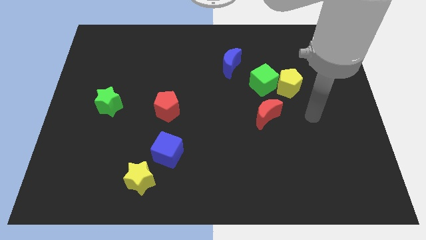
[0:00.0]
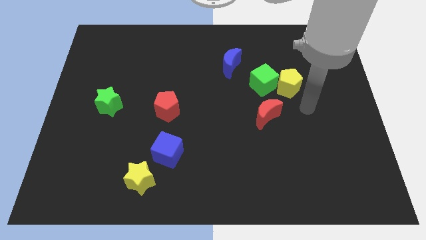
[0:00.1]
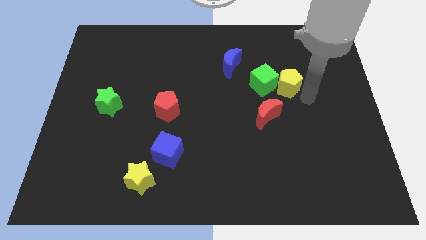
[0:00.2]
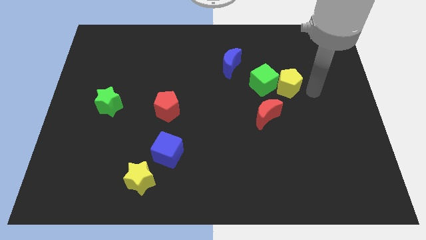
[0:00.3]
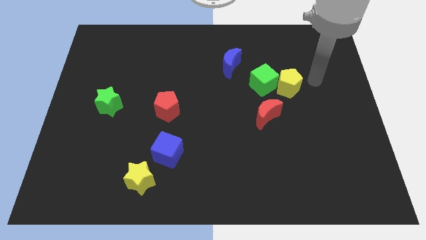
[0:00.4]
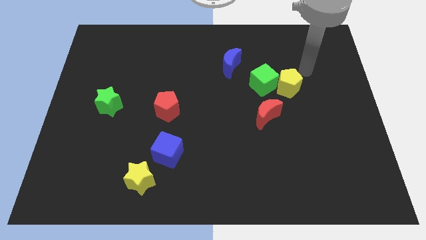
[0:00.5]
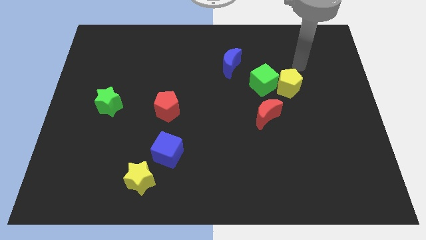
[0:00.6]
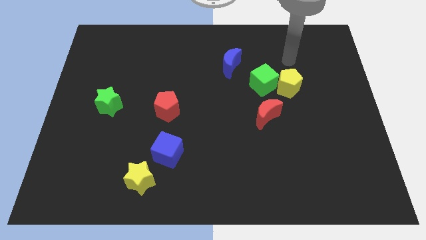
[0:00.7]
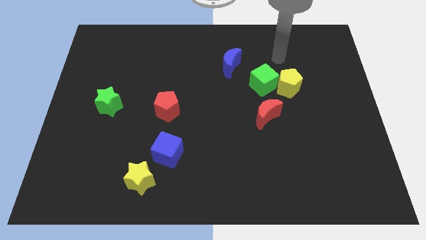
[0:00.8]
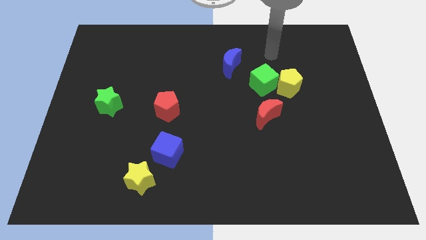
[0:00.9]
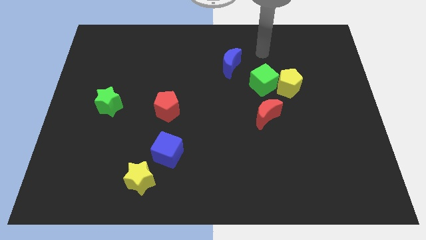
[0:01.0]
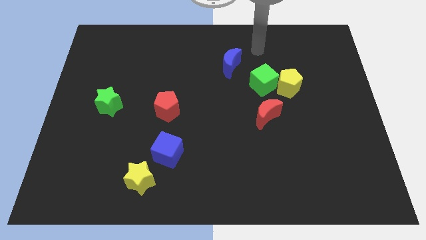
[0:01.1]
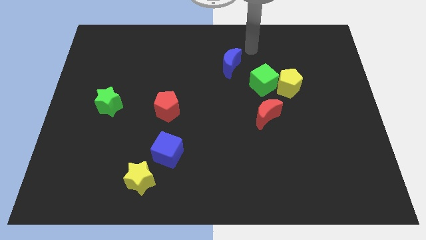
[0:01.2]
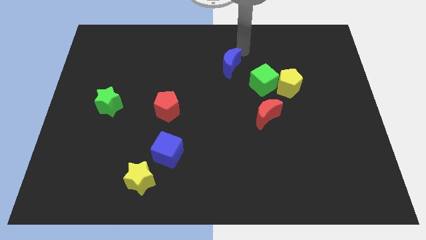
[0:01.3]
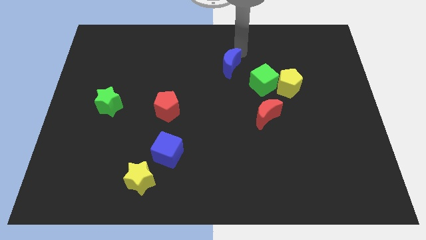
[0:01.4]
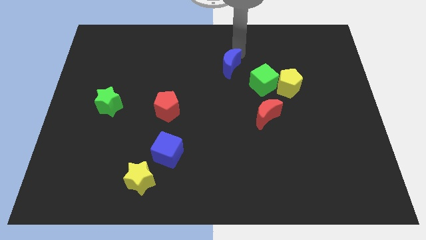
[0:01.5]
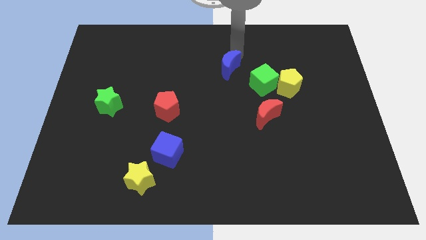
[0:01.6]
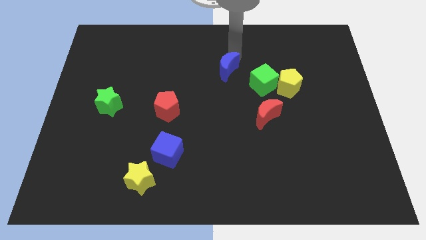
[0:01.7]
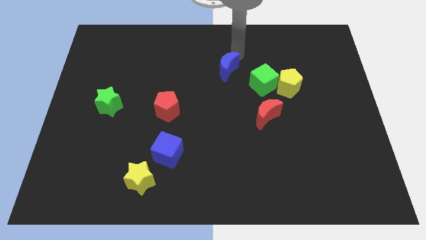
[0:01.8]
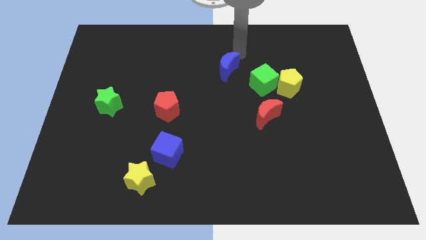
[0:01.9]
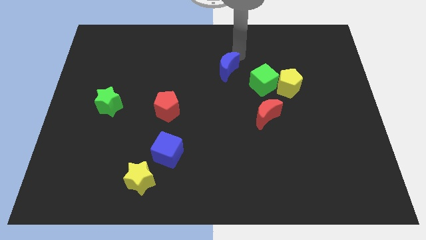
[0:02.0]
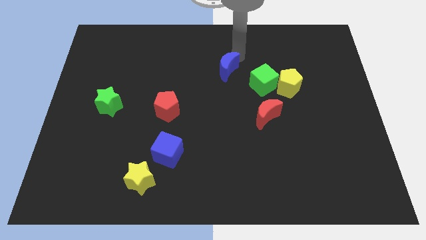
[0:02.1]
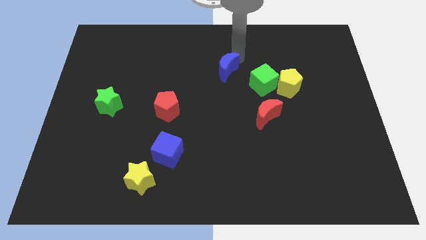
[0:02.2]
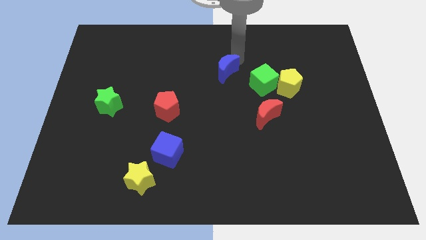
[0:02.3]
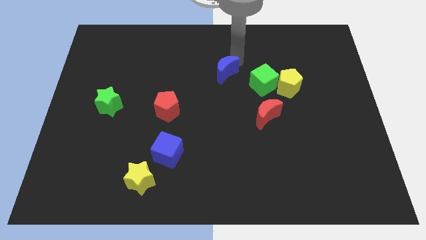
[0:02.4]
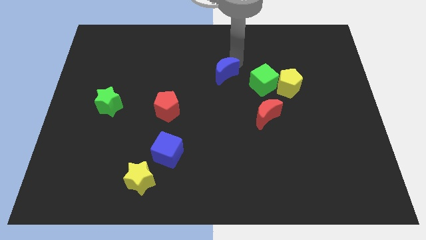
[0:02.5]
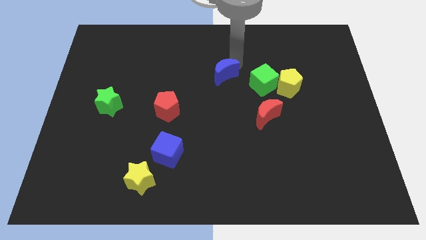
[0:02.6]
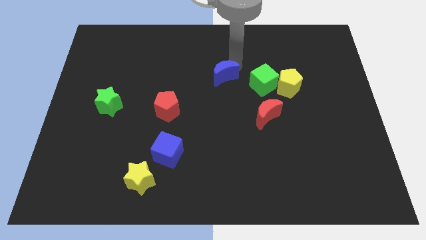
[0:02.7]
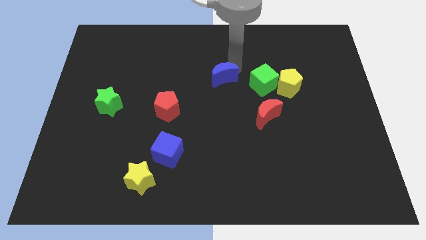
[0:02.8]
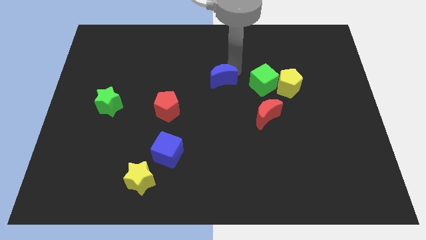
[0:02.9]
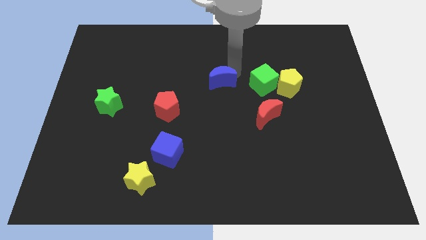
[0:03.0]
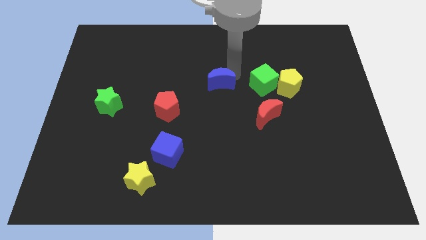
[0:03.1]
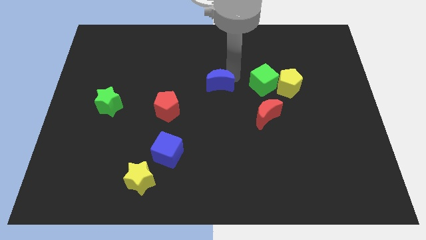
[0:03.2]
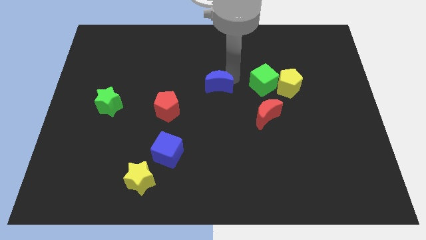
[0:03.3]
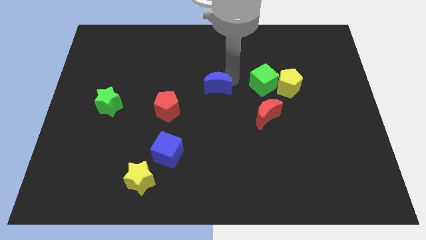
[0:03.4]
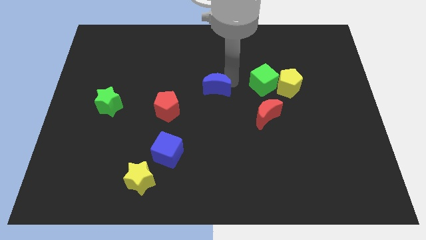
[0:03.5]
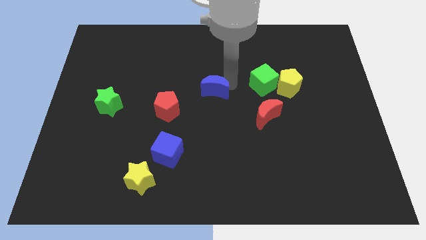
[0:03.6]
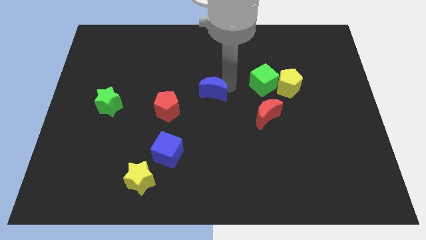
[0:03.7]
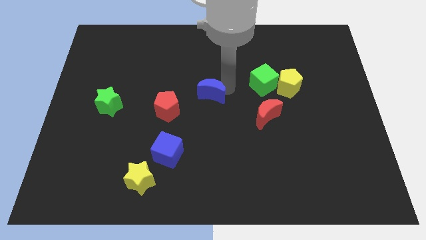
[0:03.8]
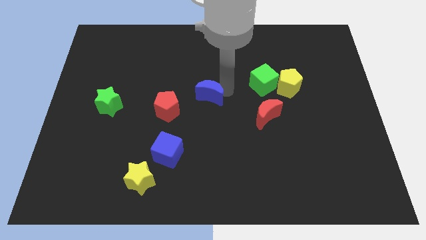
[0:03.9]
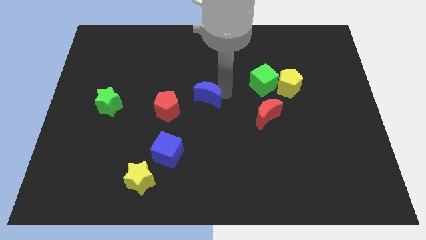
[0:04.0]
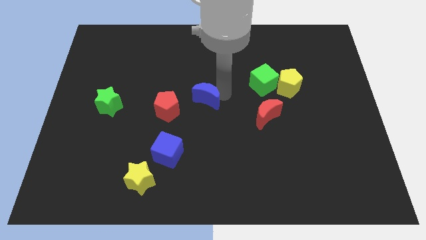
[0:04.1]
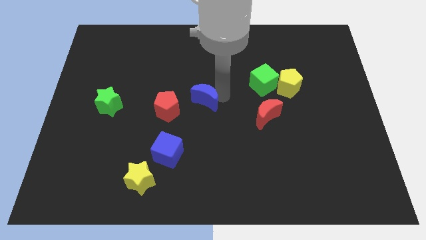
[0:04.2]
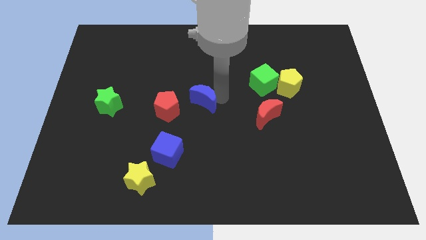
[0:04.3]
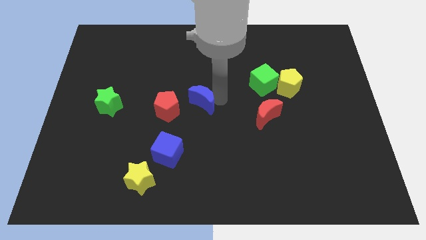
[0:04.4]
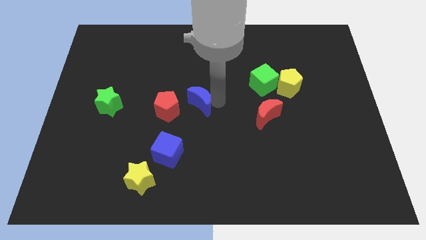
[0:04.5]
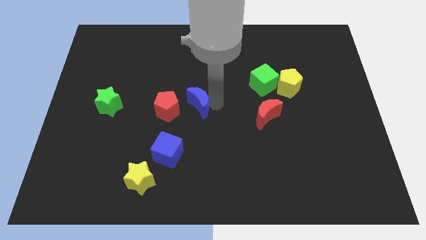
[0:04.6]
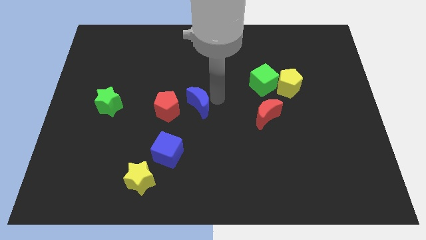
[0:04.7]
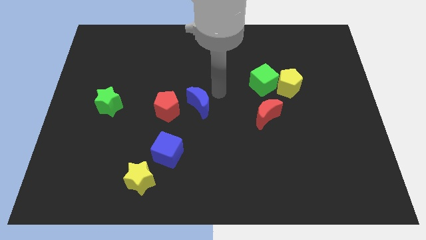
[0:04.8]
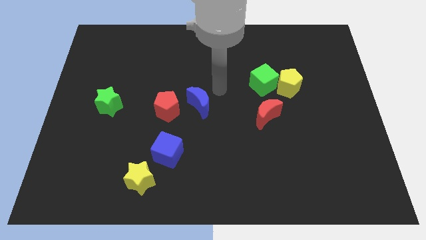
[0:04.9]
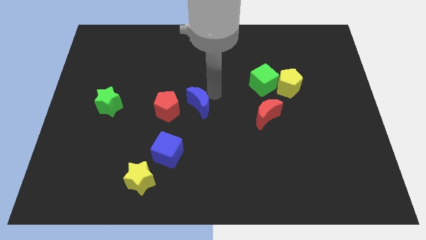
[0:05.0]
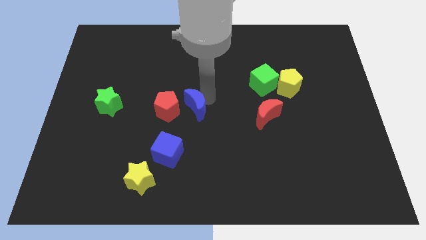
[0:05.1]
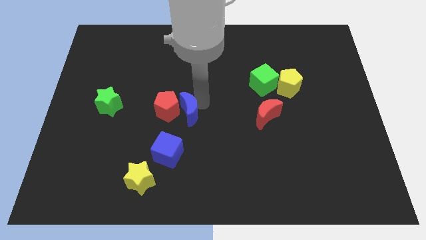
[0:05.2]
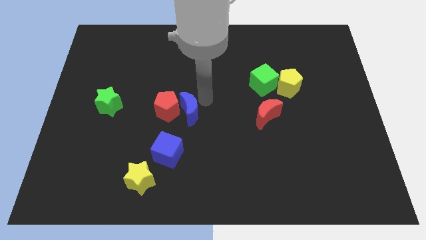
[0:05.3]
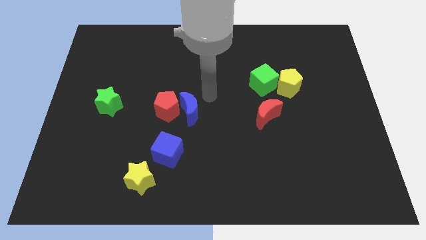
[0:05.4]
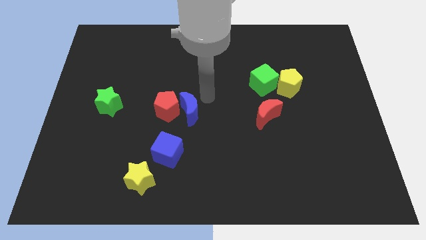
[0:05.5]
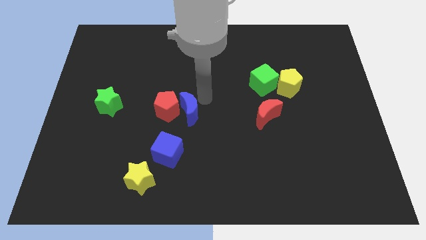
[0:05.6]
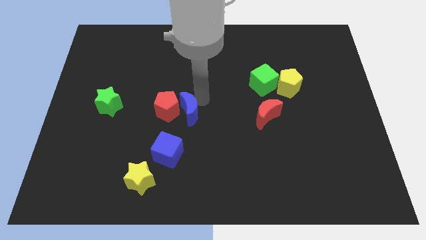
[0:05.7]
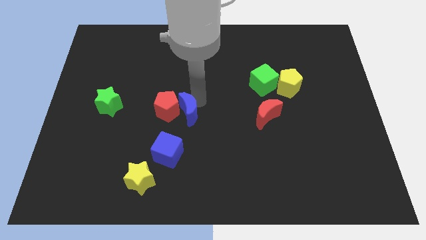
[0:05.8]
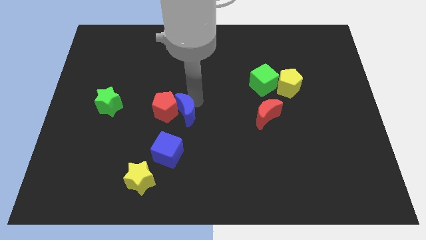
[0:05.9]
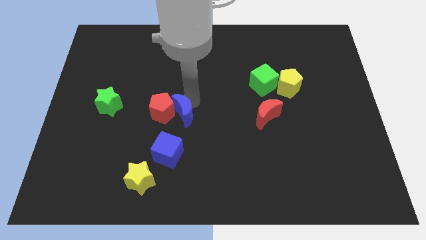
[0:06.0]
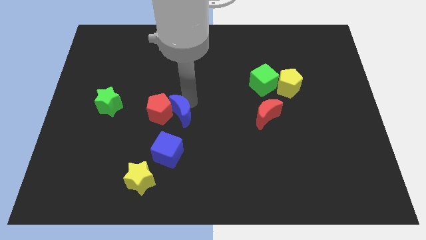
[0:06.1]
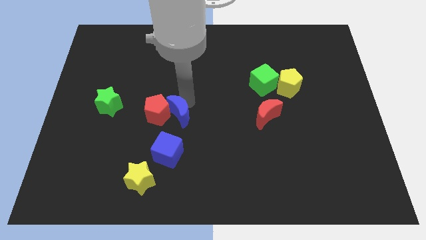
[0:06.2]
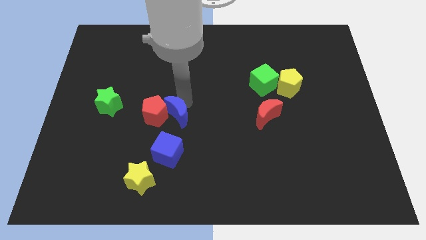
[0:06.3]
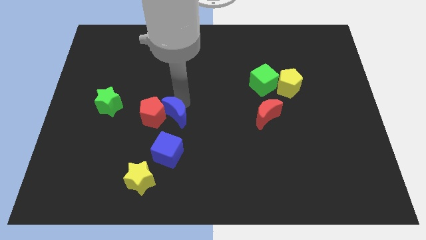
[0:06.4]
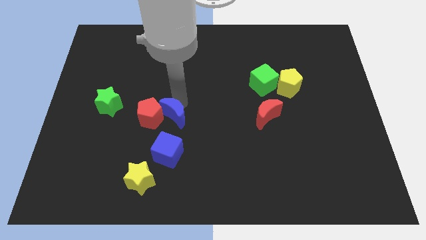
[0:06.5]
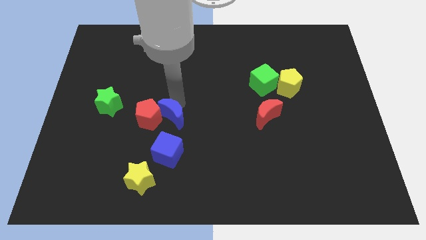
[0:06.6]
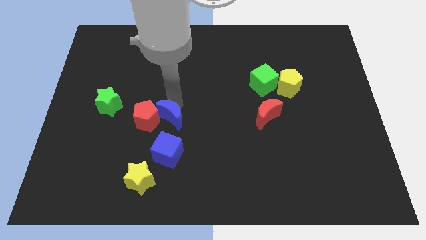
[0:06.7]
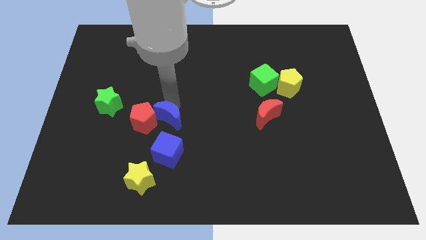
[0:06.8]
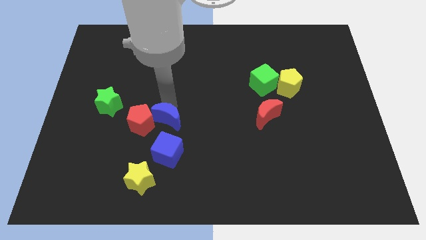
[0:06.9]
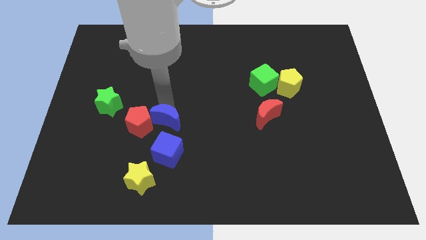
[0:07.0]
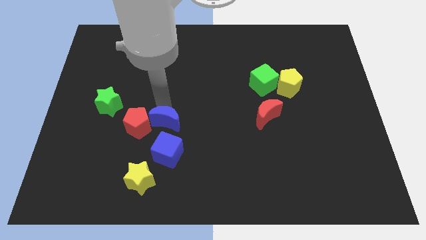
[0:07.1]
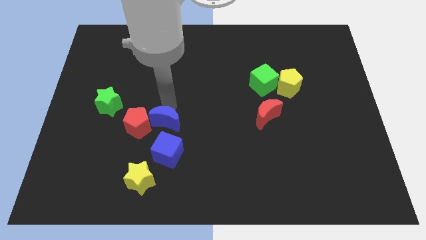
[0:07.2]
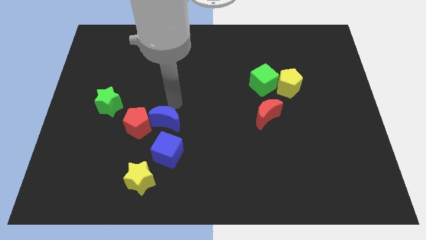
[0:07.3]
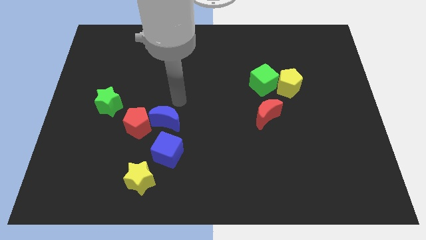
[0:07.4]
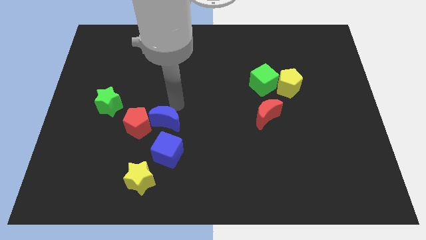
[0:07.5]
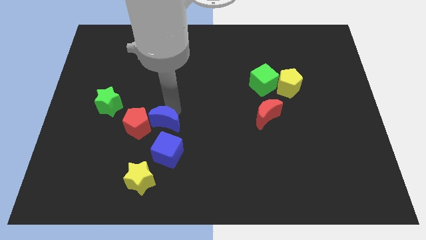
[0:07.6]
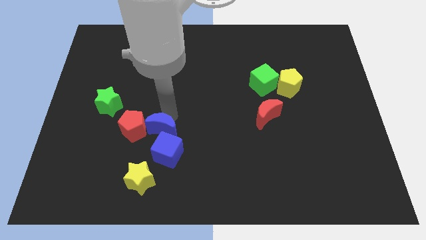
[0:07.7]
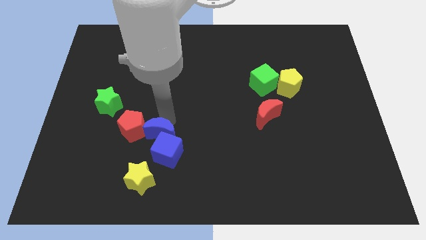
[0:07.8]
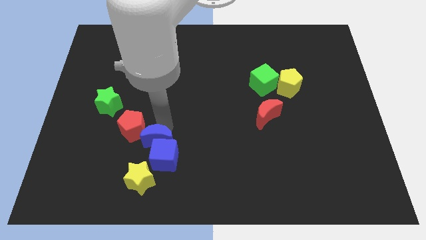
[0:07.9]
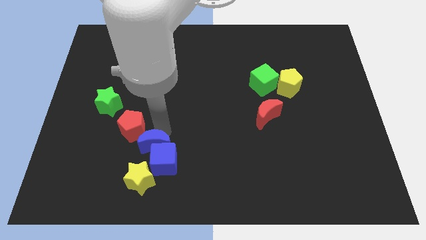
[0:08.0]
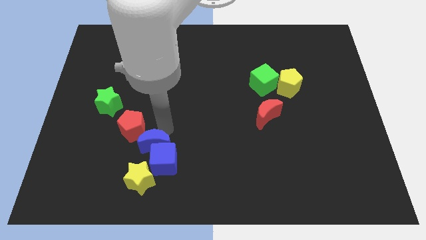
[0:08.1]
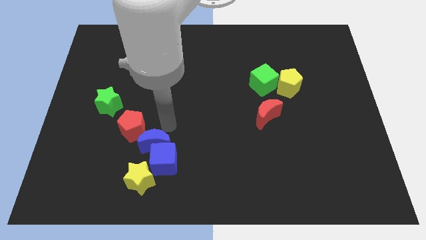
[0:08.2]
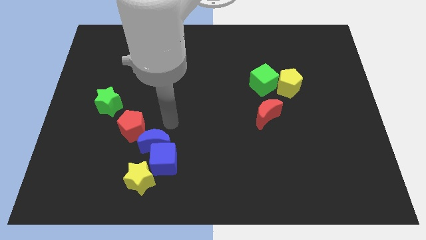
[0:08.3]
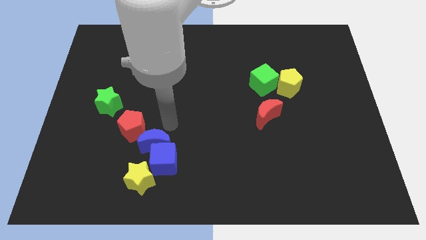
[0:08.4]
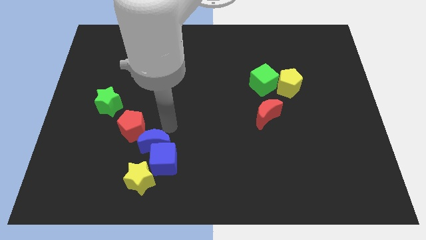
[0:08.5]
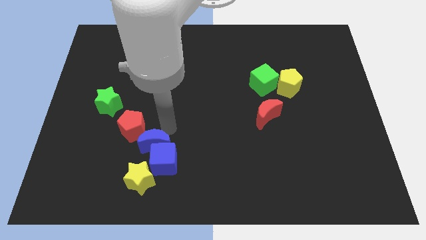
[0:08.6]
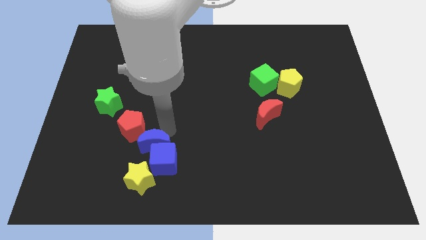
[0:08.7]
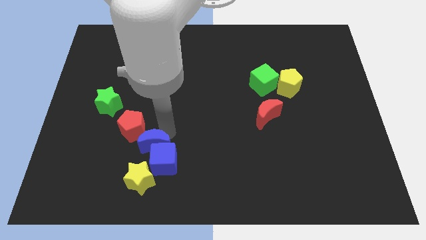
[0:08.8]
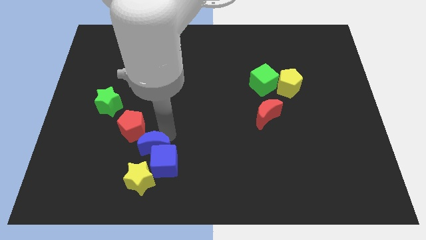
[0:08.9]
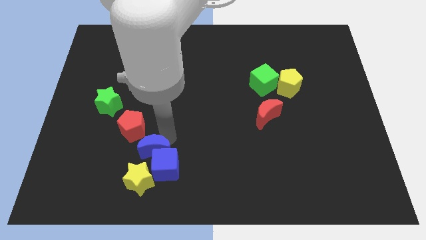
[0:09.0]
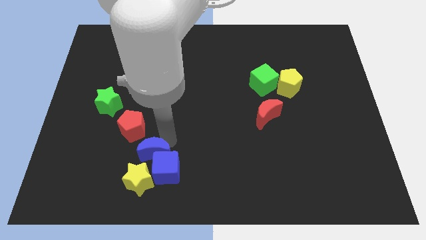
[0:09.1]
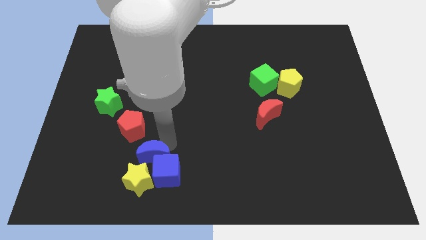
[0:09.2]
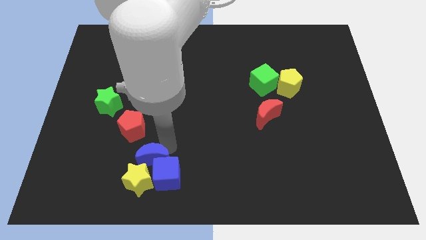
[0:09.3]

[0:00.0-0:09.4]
push the blue moon to the yellow star
